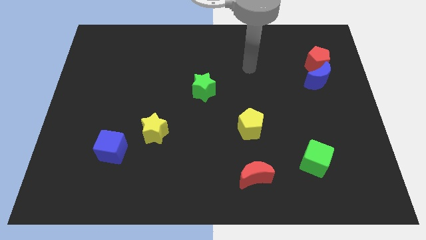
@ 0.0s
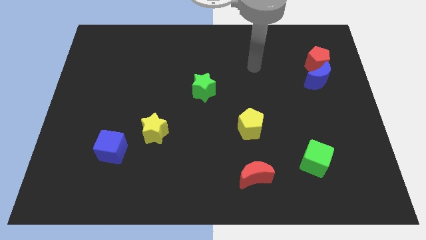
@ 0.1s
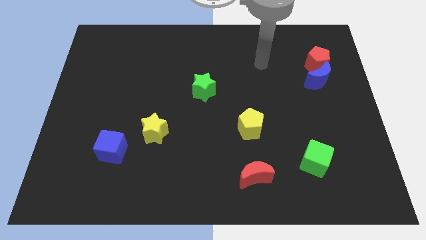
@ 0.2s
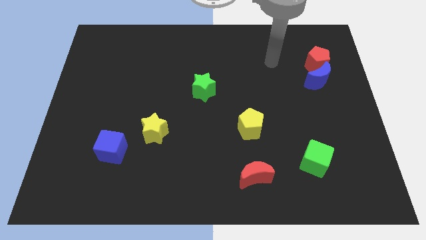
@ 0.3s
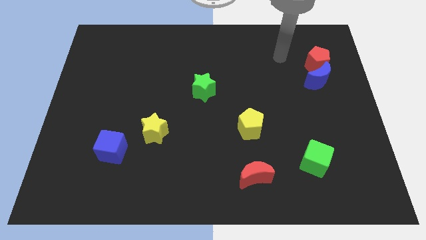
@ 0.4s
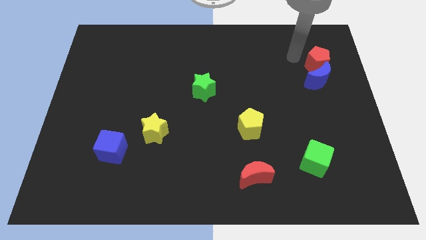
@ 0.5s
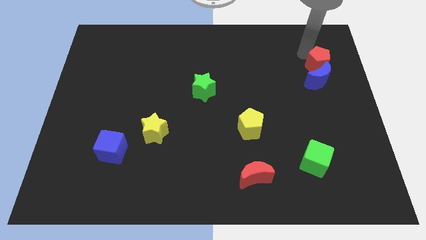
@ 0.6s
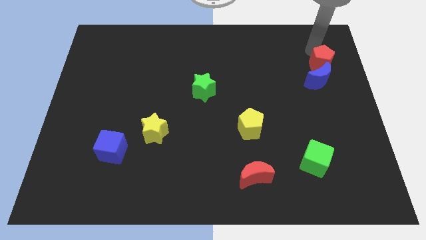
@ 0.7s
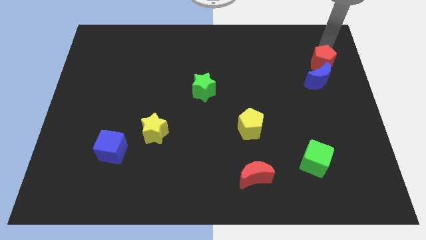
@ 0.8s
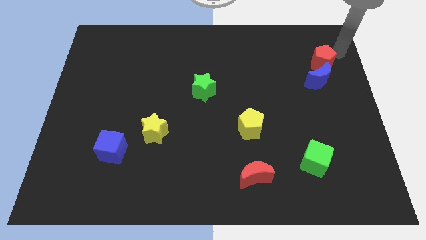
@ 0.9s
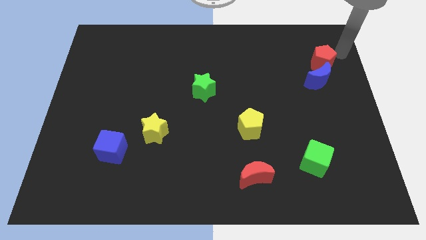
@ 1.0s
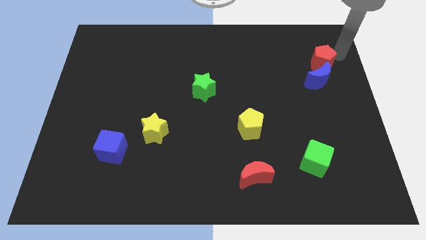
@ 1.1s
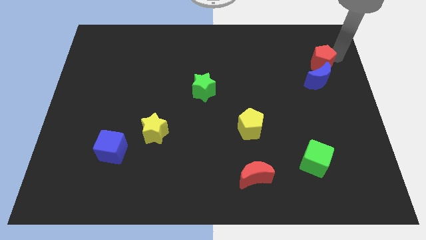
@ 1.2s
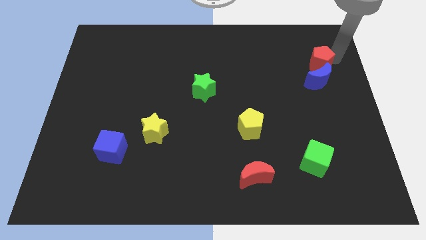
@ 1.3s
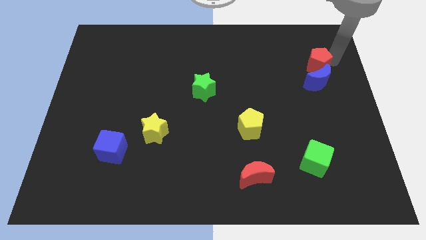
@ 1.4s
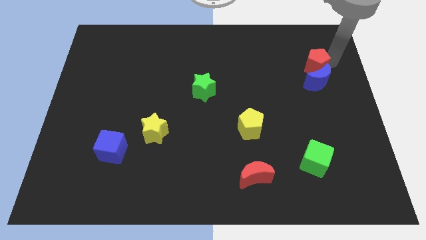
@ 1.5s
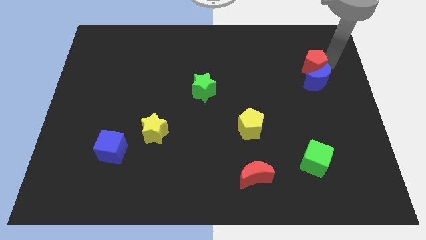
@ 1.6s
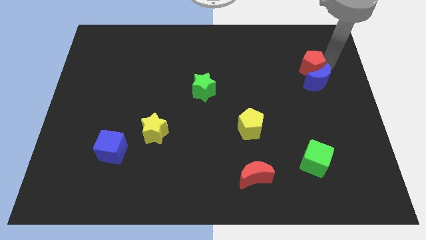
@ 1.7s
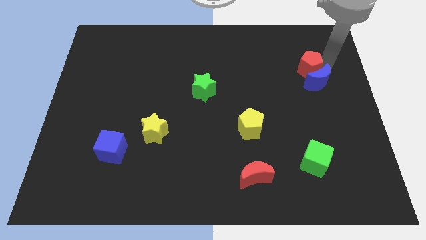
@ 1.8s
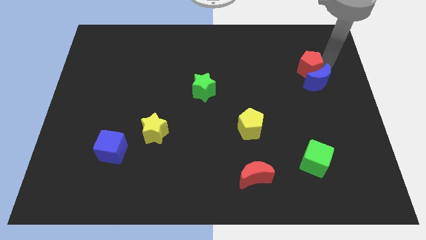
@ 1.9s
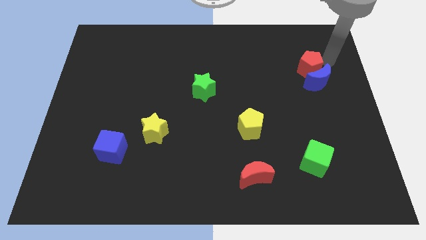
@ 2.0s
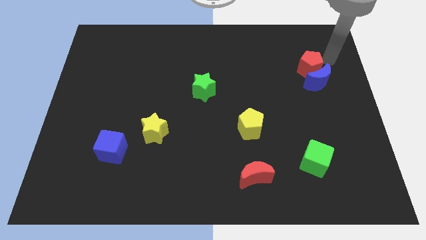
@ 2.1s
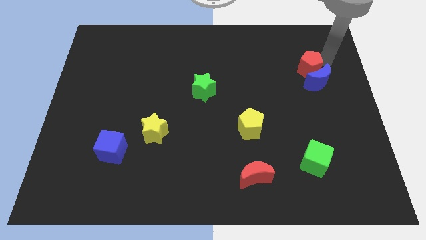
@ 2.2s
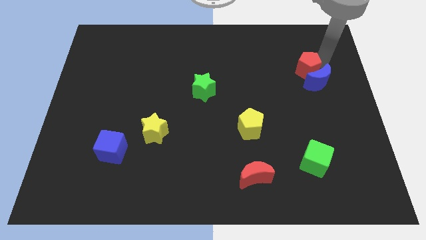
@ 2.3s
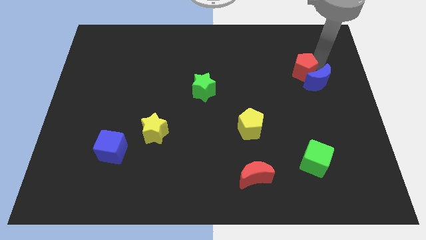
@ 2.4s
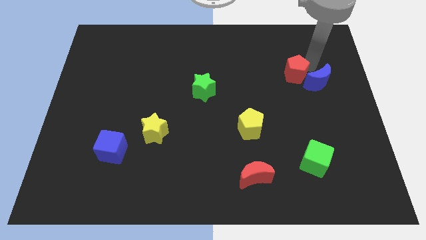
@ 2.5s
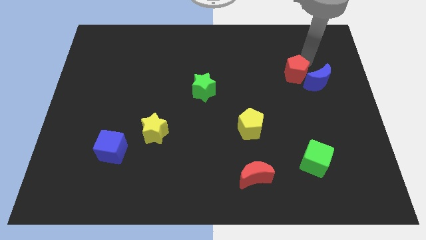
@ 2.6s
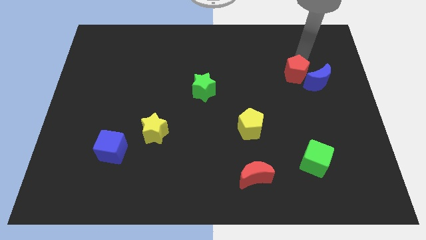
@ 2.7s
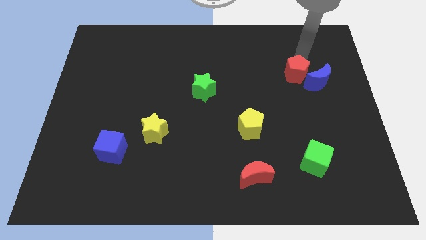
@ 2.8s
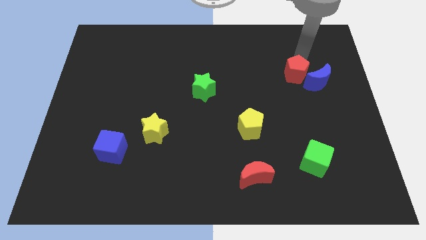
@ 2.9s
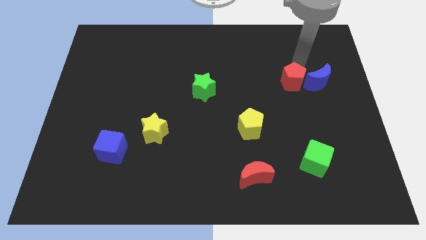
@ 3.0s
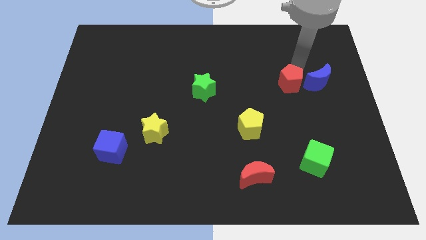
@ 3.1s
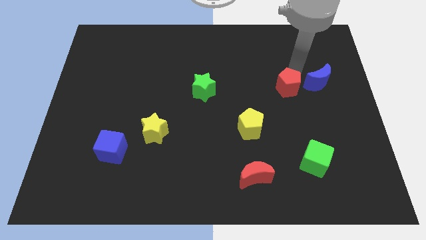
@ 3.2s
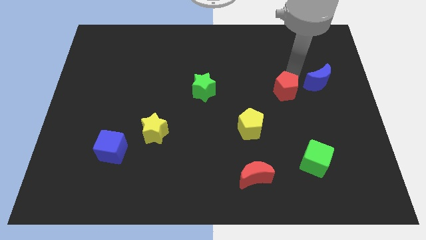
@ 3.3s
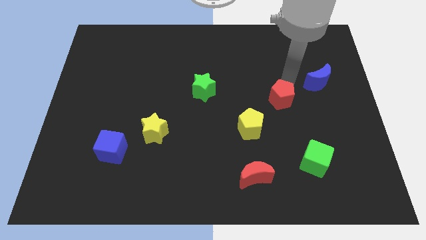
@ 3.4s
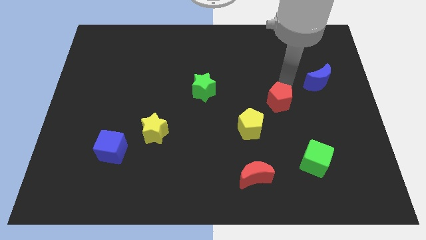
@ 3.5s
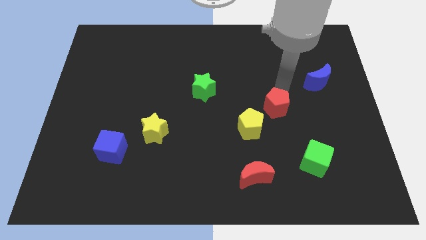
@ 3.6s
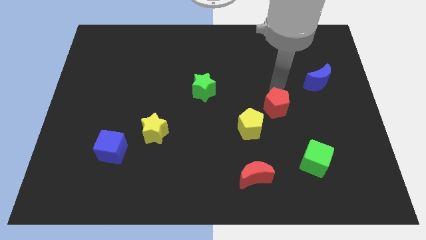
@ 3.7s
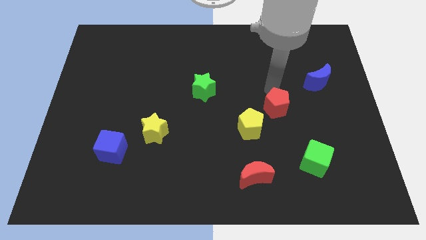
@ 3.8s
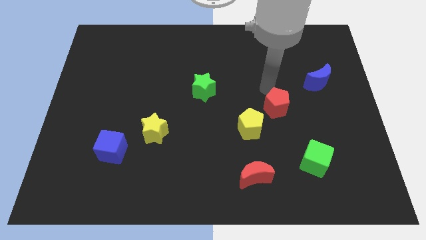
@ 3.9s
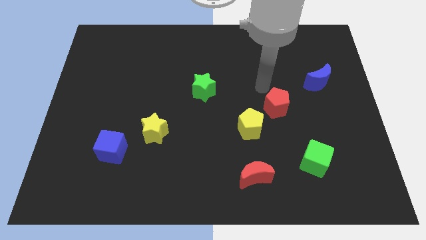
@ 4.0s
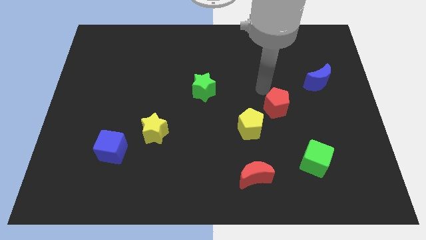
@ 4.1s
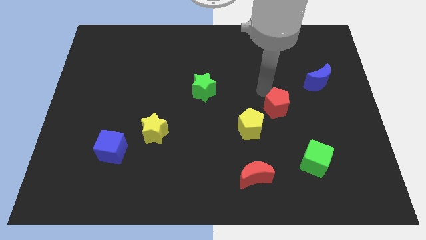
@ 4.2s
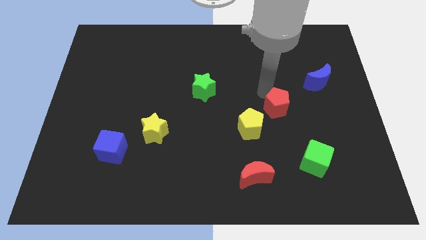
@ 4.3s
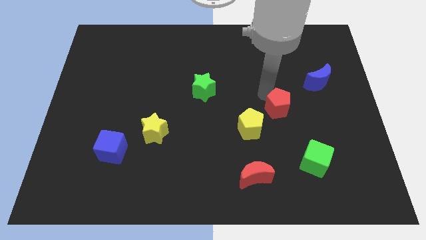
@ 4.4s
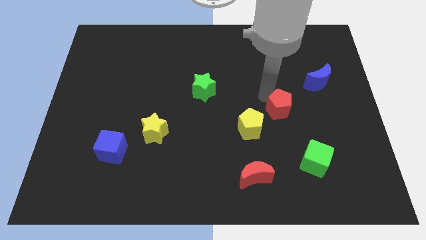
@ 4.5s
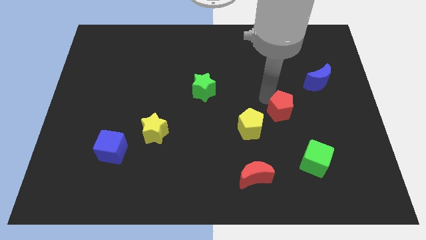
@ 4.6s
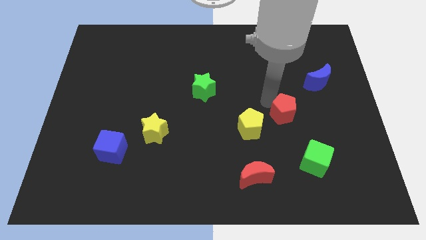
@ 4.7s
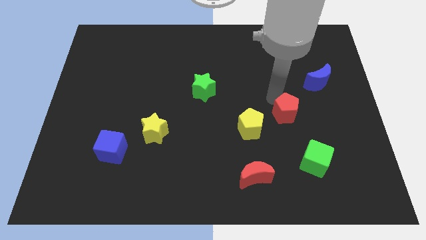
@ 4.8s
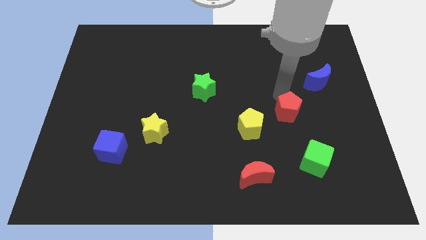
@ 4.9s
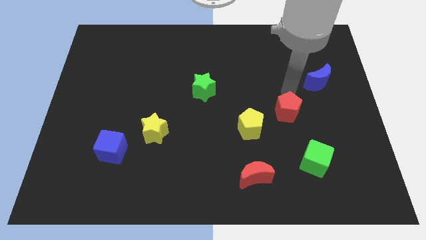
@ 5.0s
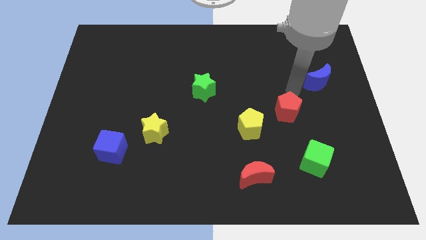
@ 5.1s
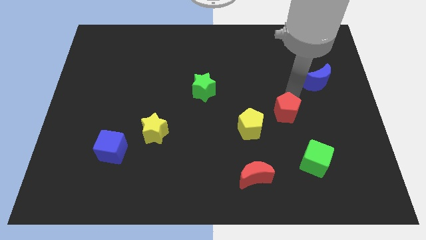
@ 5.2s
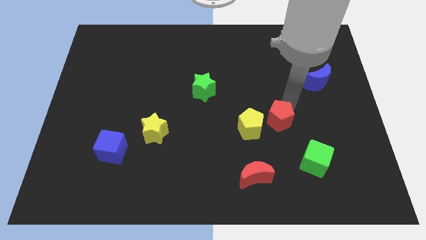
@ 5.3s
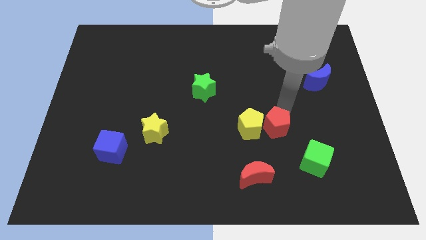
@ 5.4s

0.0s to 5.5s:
move the red pentagon diagonally down and to the right of the yellow pentagon

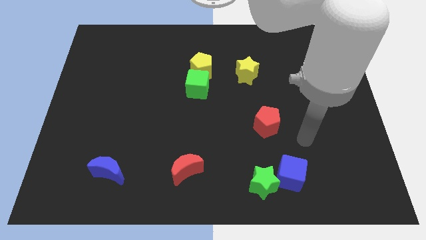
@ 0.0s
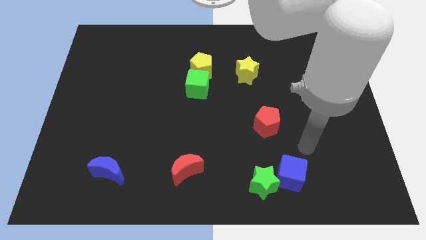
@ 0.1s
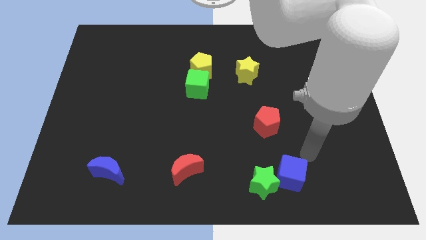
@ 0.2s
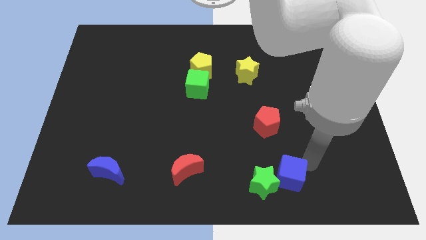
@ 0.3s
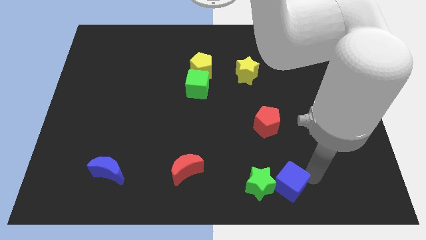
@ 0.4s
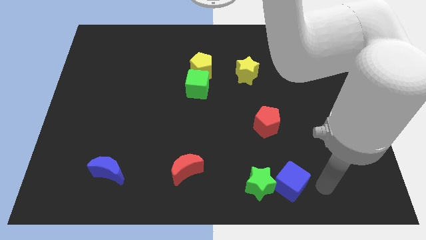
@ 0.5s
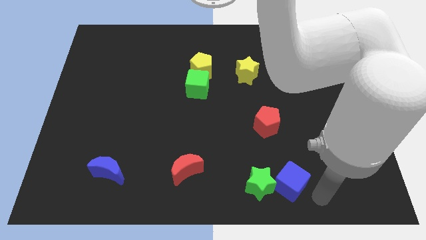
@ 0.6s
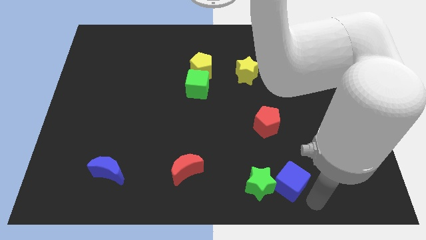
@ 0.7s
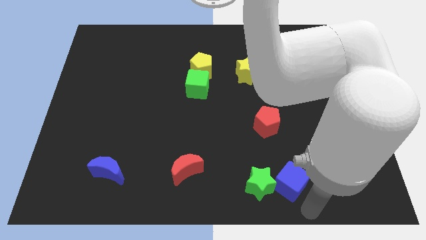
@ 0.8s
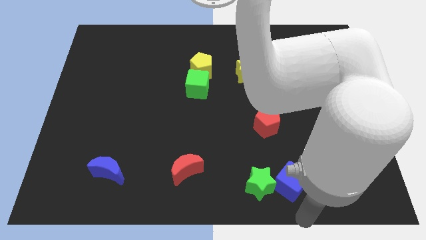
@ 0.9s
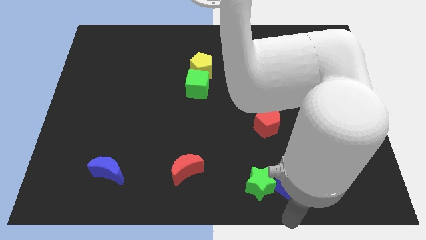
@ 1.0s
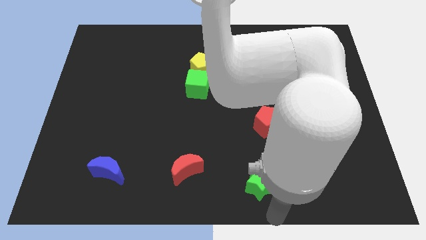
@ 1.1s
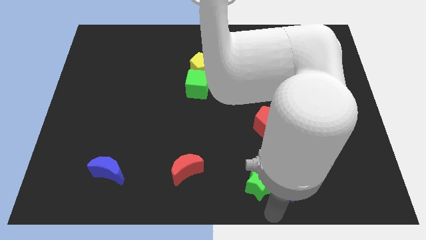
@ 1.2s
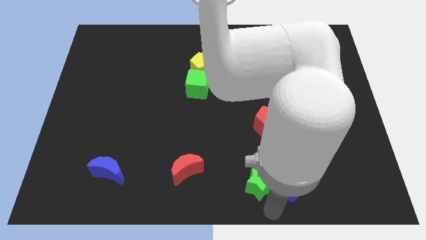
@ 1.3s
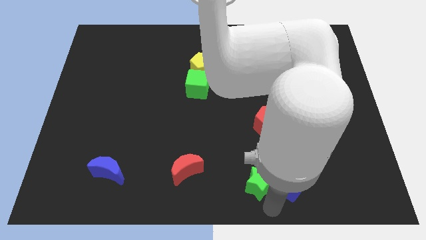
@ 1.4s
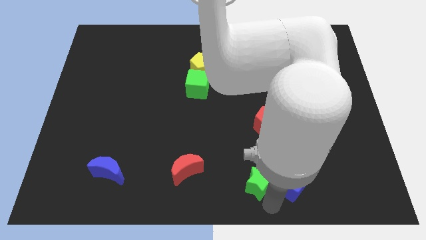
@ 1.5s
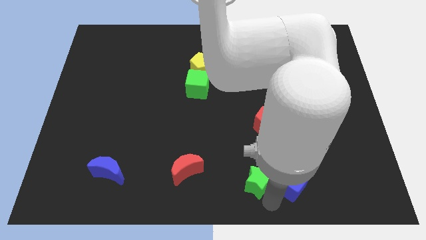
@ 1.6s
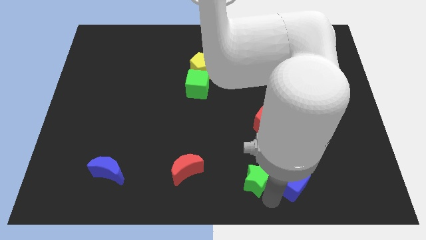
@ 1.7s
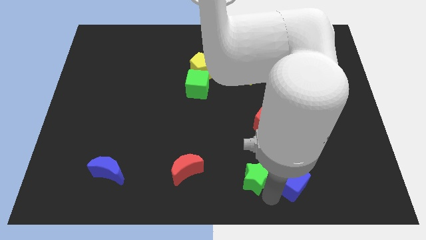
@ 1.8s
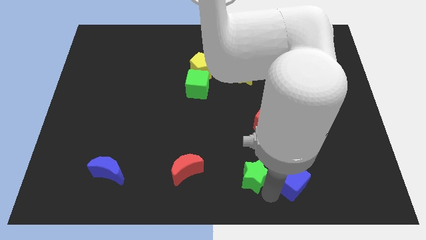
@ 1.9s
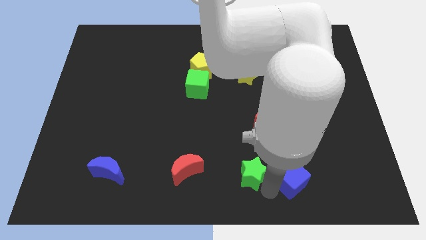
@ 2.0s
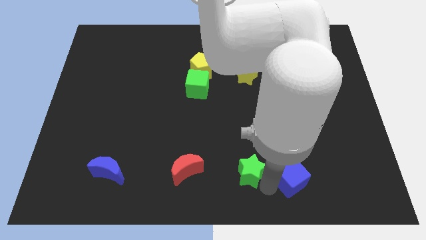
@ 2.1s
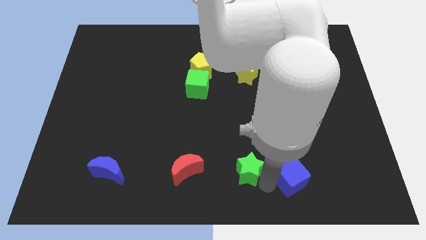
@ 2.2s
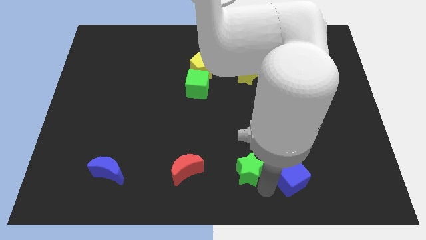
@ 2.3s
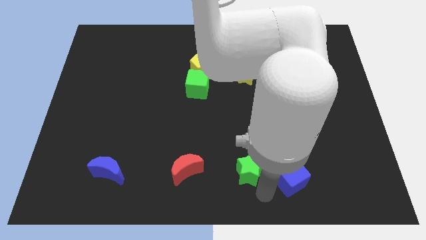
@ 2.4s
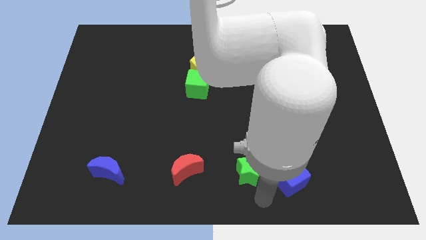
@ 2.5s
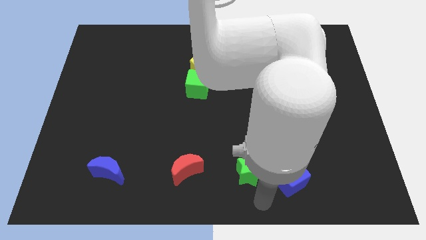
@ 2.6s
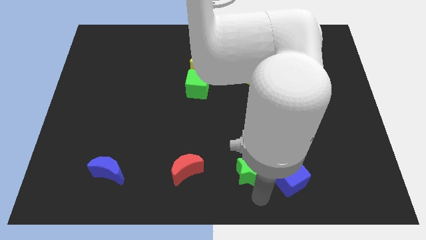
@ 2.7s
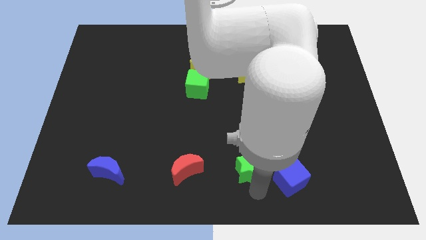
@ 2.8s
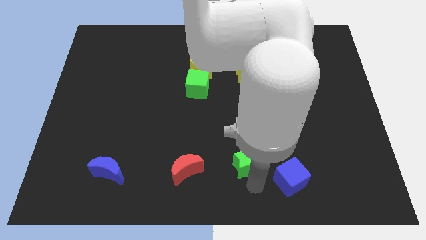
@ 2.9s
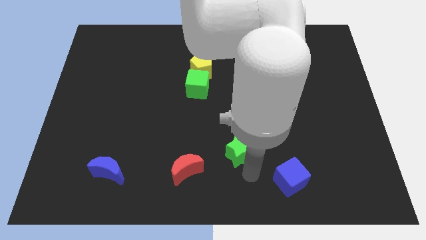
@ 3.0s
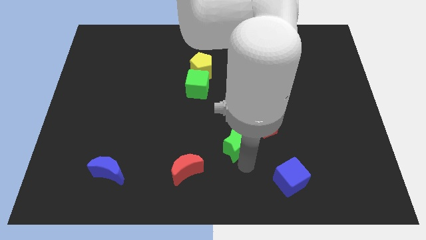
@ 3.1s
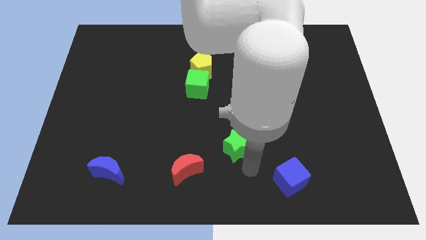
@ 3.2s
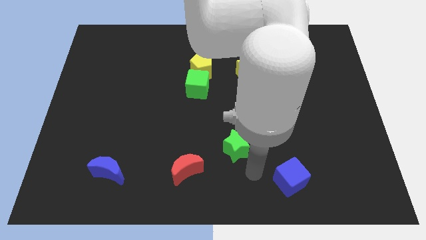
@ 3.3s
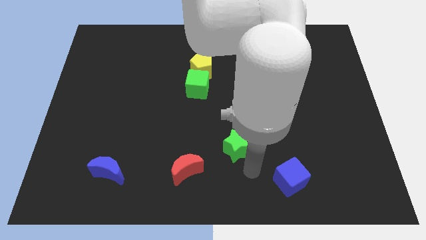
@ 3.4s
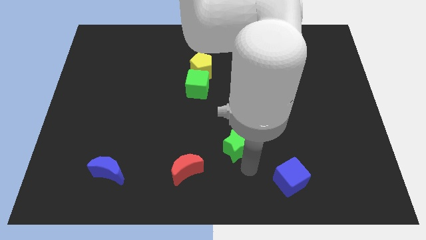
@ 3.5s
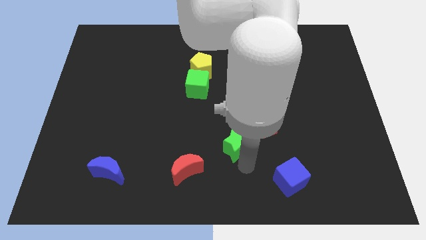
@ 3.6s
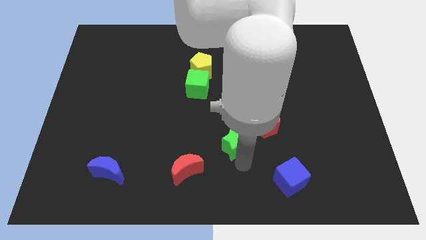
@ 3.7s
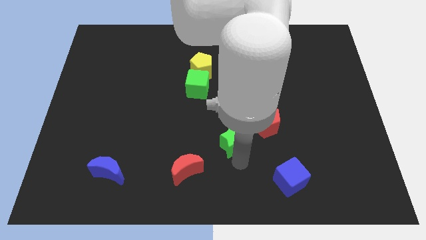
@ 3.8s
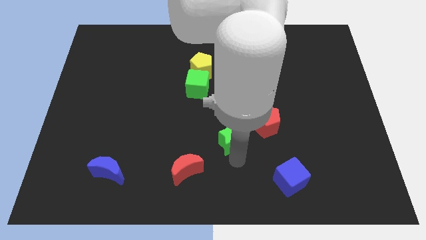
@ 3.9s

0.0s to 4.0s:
slide the green star to the left of the red pentagon
